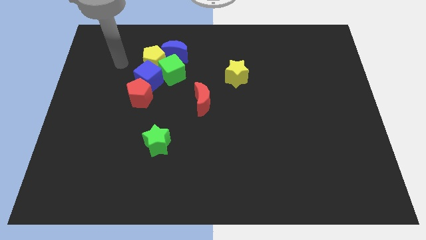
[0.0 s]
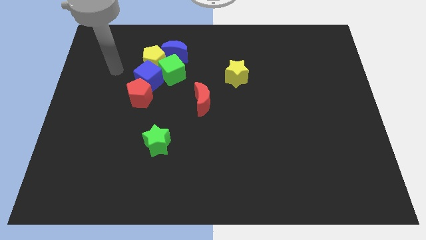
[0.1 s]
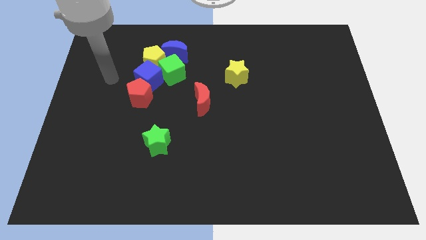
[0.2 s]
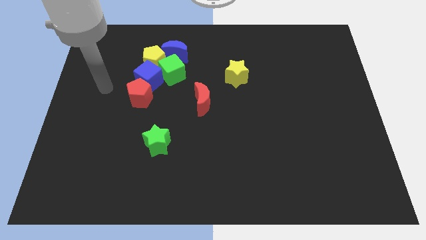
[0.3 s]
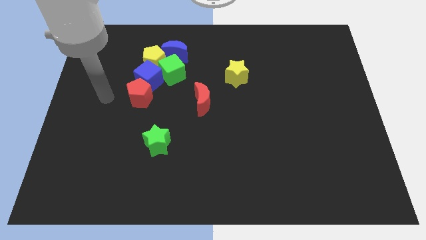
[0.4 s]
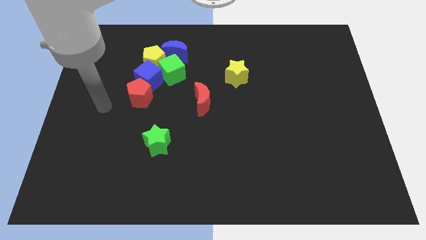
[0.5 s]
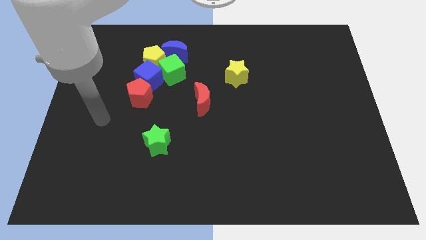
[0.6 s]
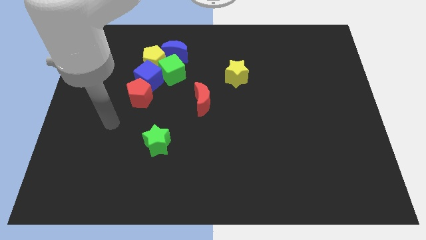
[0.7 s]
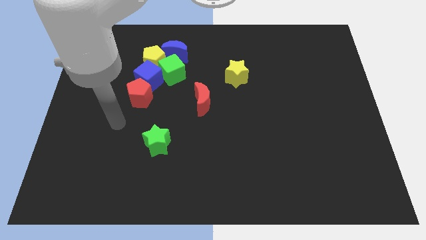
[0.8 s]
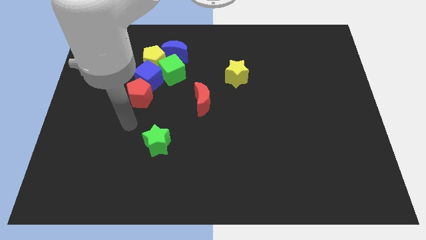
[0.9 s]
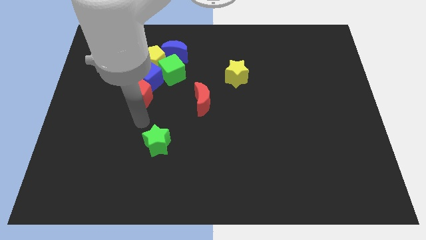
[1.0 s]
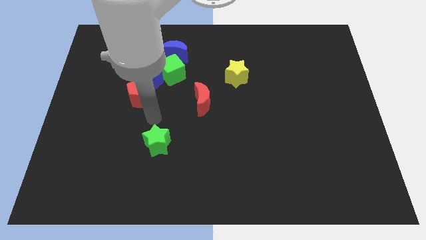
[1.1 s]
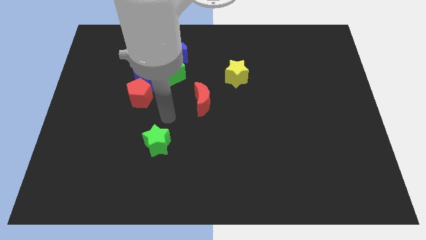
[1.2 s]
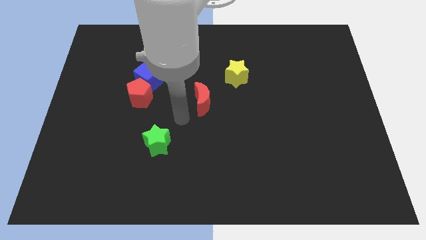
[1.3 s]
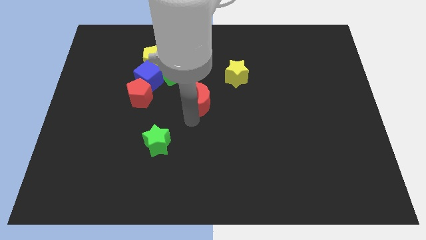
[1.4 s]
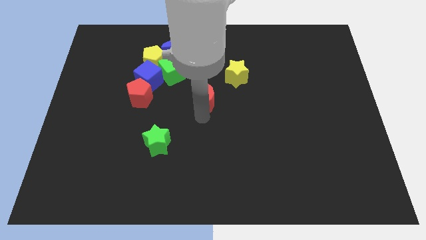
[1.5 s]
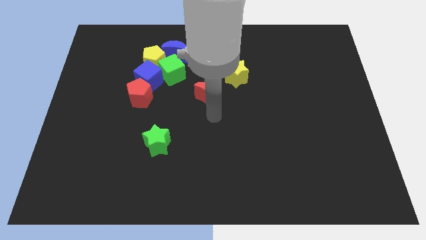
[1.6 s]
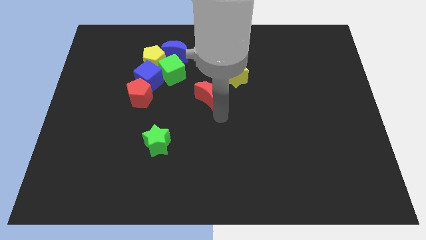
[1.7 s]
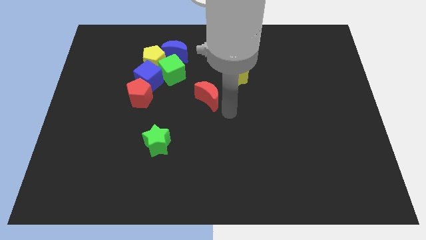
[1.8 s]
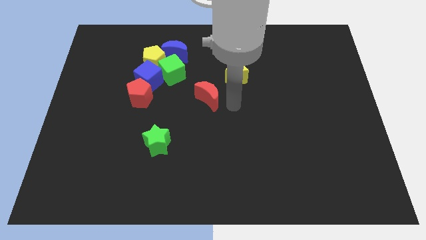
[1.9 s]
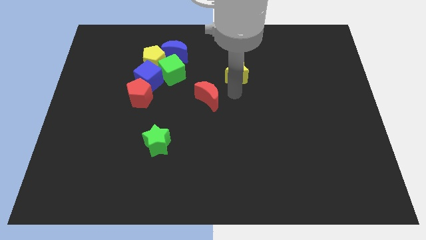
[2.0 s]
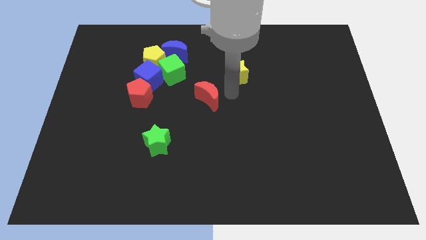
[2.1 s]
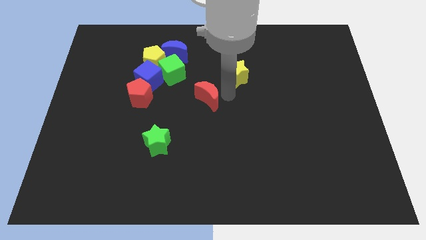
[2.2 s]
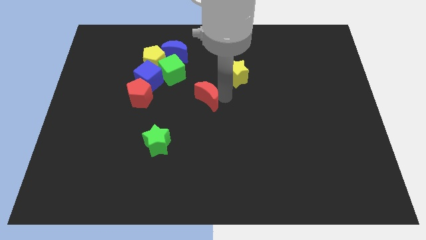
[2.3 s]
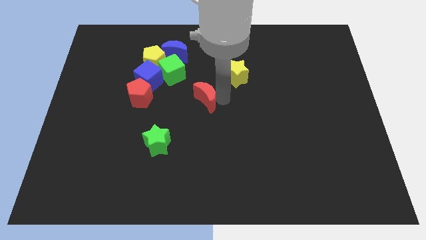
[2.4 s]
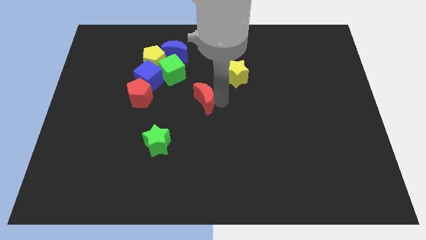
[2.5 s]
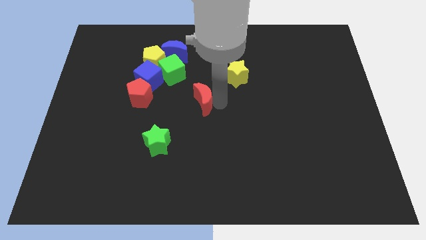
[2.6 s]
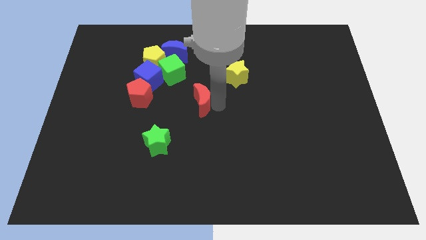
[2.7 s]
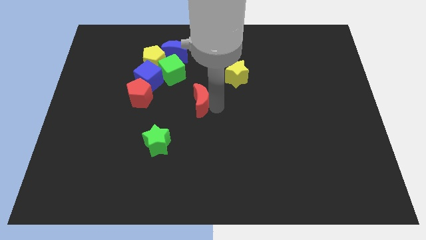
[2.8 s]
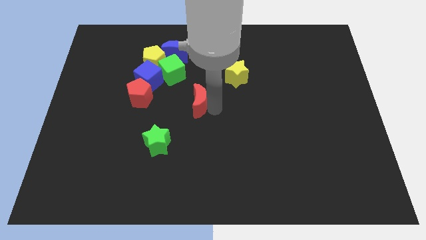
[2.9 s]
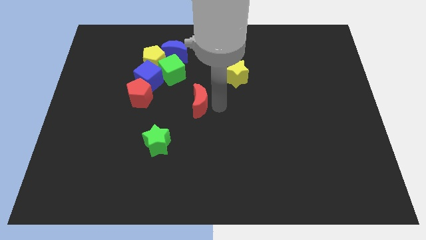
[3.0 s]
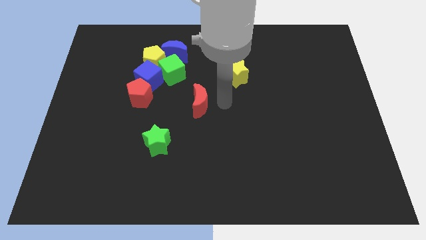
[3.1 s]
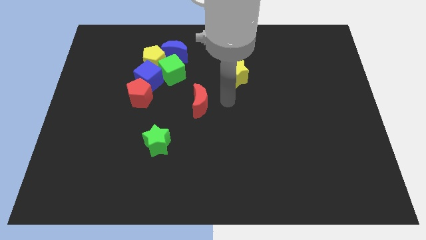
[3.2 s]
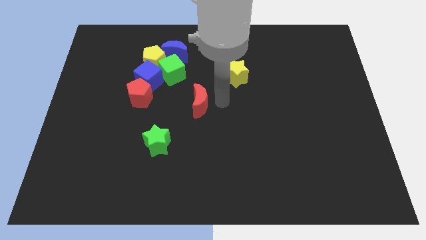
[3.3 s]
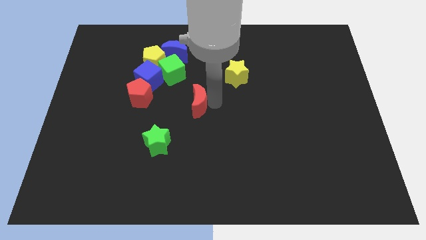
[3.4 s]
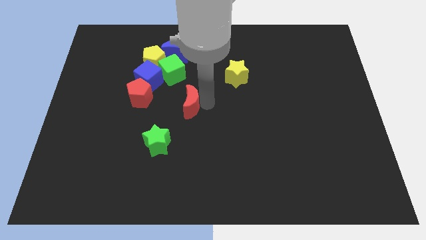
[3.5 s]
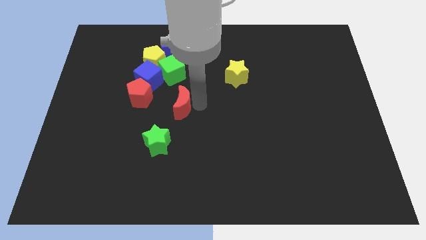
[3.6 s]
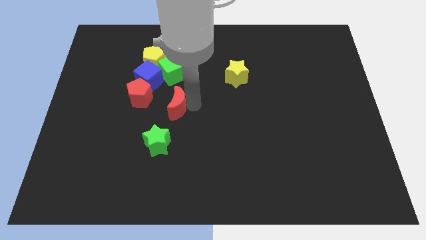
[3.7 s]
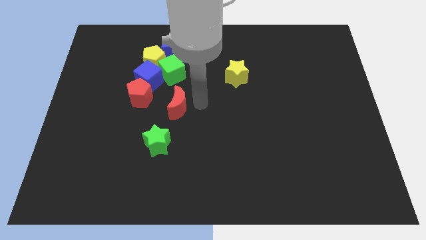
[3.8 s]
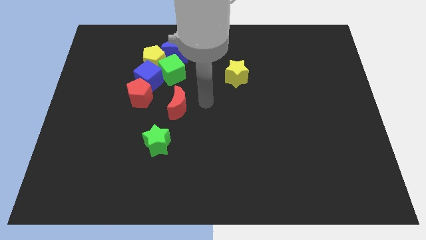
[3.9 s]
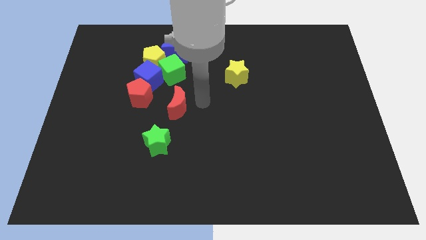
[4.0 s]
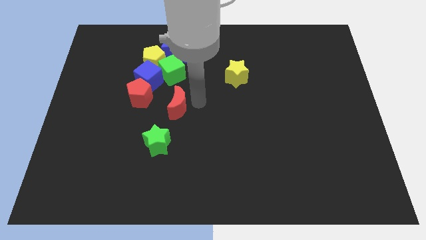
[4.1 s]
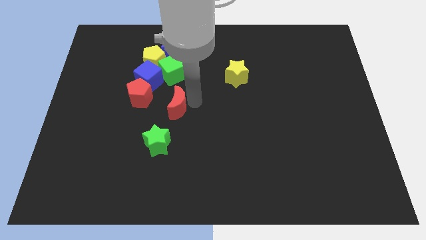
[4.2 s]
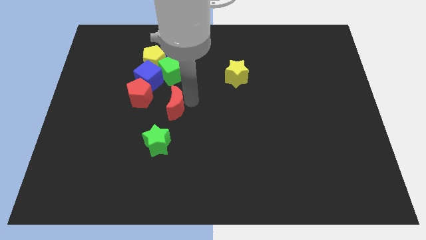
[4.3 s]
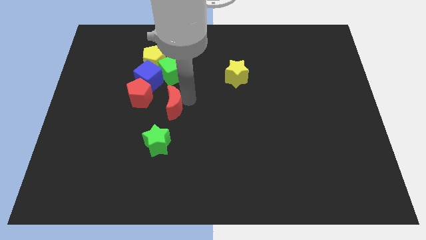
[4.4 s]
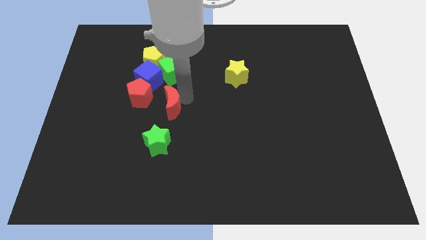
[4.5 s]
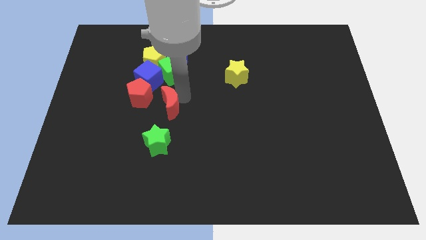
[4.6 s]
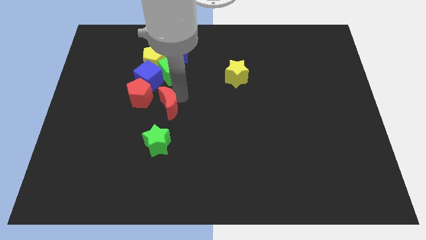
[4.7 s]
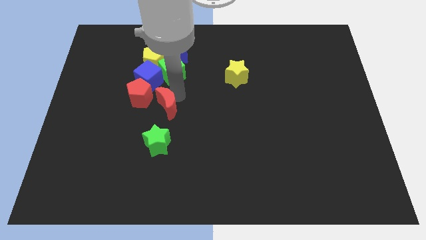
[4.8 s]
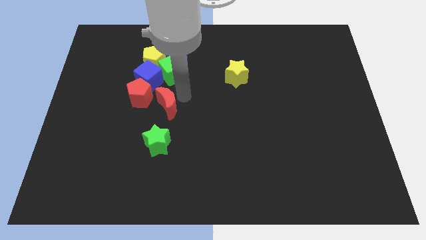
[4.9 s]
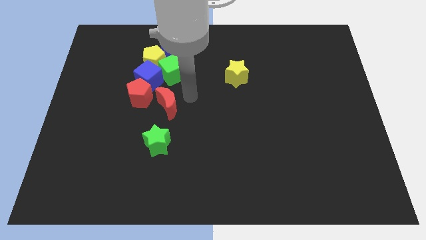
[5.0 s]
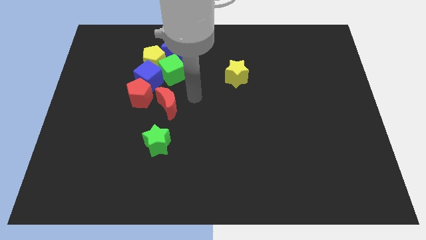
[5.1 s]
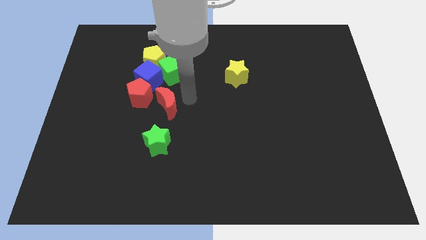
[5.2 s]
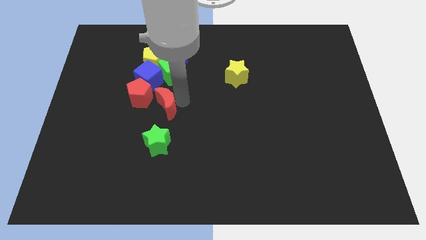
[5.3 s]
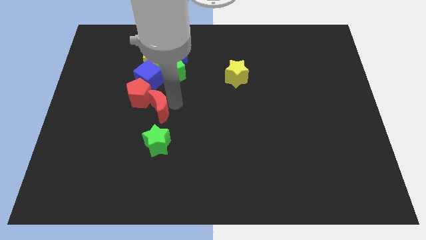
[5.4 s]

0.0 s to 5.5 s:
move the red moon below the blue cube

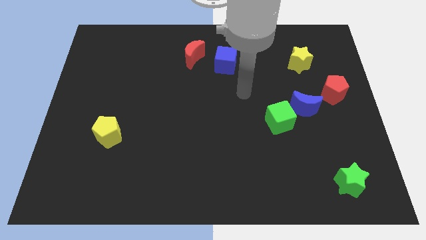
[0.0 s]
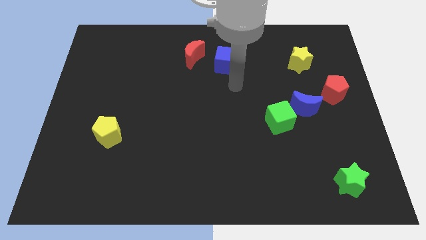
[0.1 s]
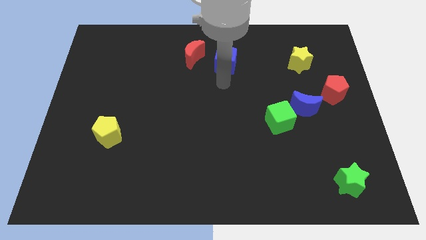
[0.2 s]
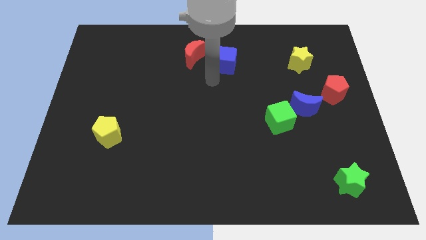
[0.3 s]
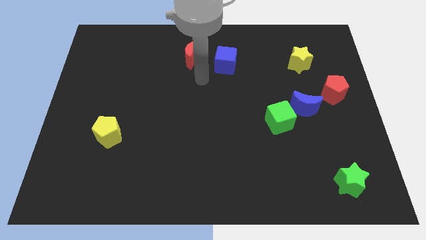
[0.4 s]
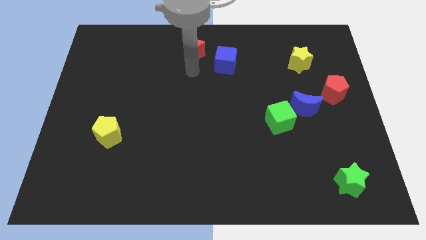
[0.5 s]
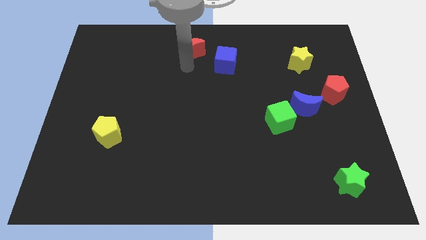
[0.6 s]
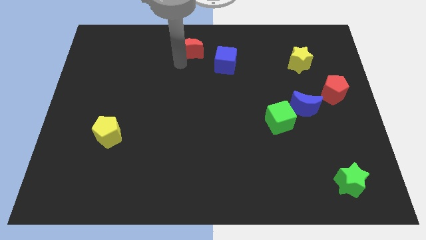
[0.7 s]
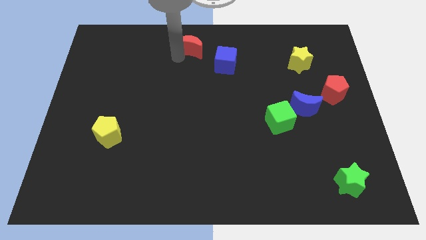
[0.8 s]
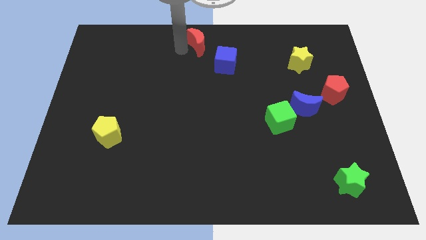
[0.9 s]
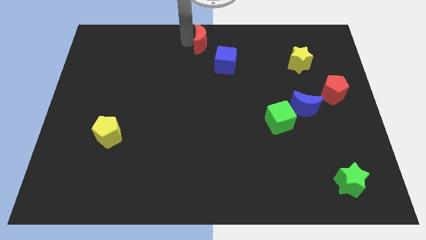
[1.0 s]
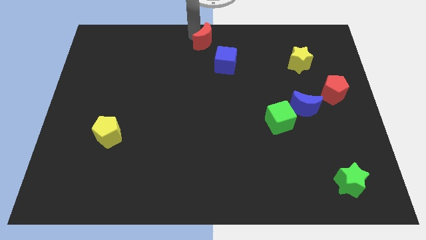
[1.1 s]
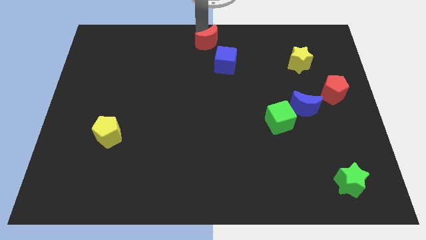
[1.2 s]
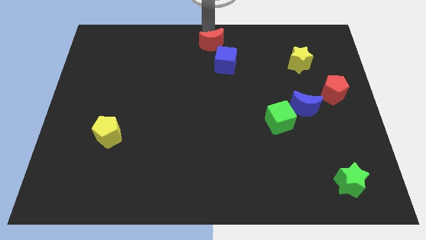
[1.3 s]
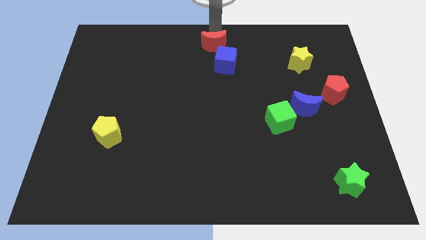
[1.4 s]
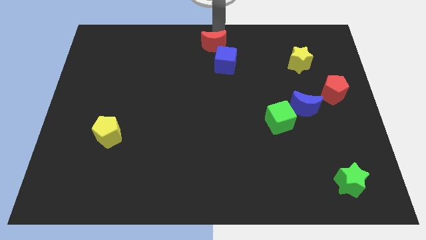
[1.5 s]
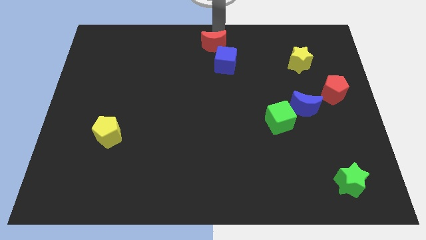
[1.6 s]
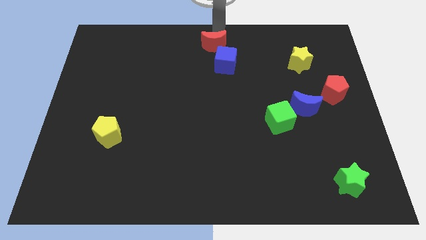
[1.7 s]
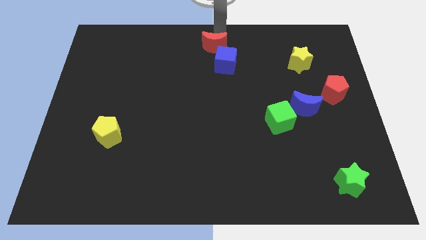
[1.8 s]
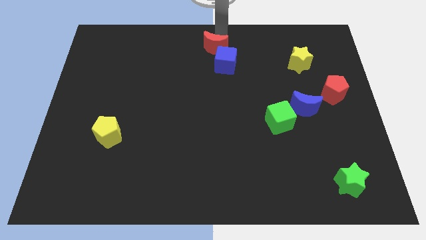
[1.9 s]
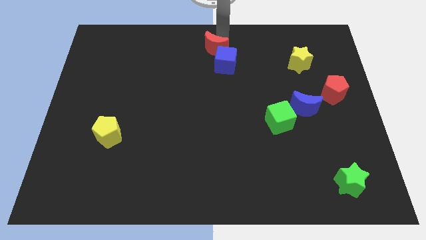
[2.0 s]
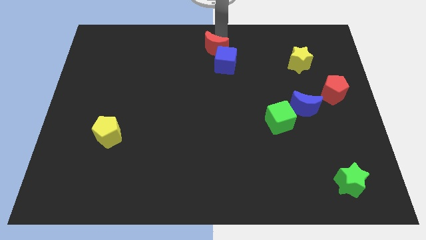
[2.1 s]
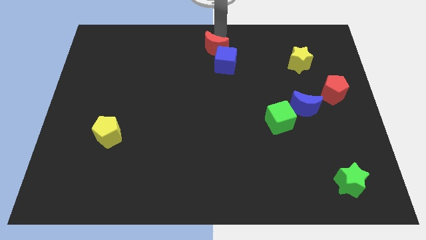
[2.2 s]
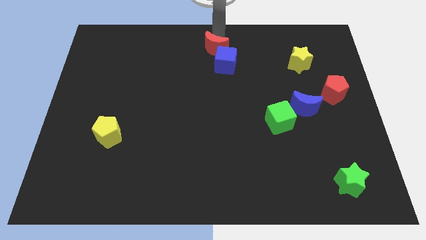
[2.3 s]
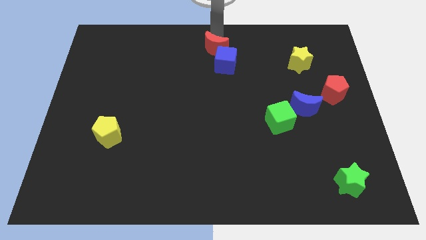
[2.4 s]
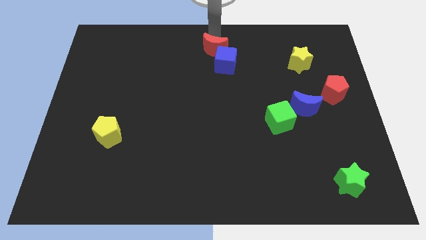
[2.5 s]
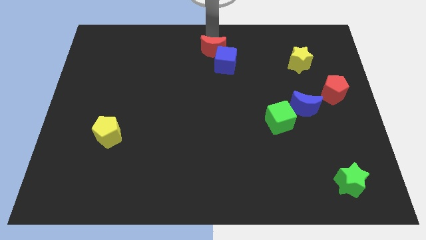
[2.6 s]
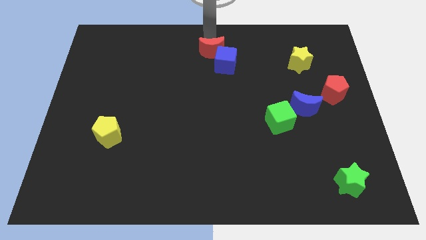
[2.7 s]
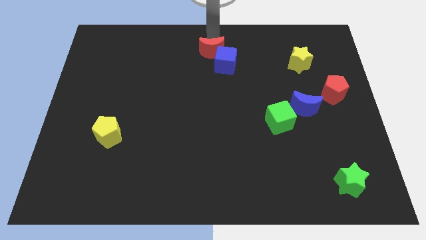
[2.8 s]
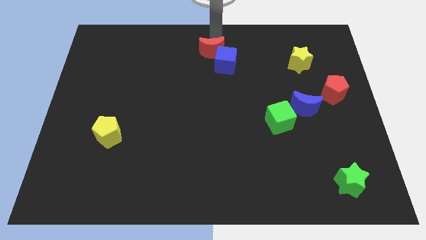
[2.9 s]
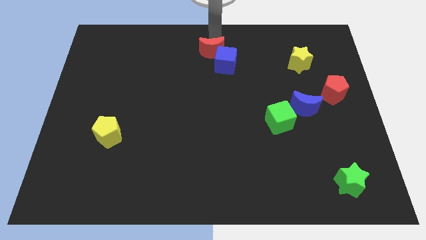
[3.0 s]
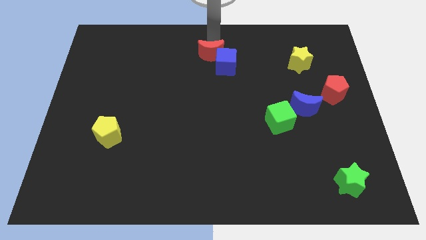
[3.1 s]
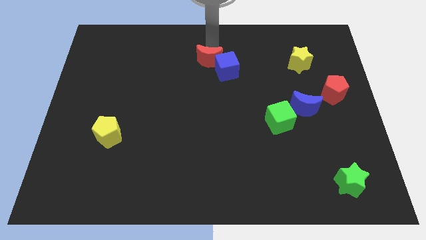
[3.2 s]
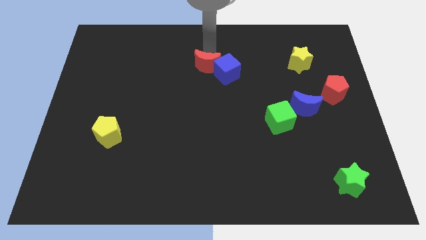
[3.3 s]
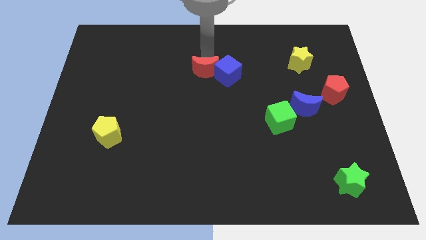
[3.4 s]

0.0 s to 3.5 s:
put the red moon to the bottom left side of the blue cube
